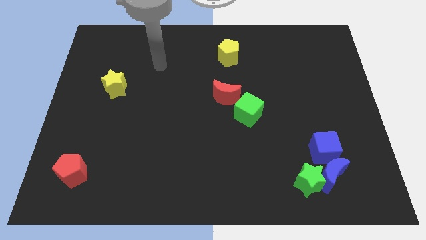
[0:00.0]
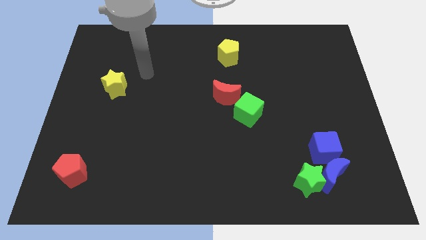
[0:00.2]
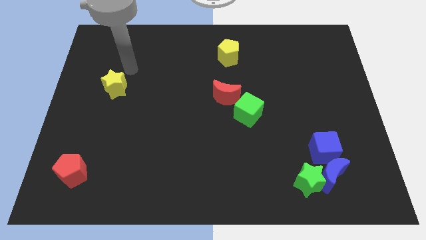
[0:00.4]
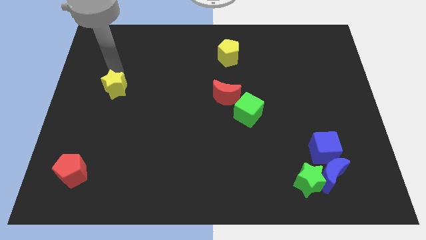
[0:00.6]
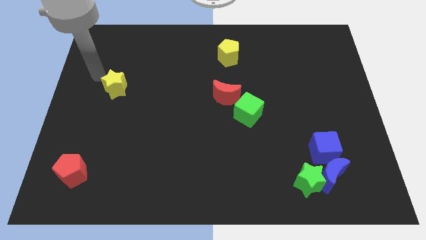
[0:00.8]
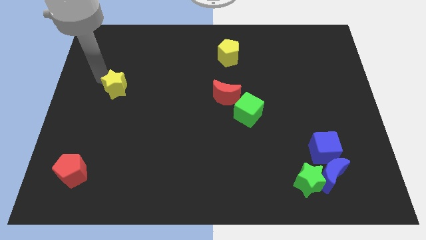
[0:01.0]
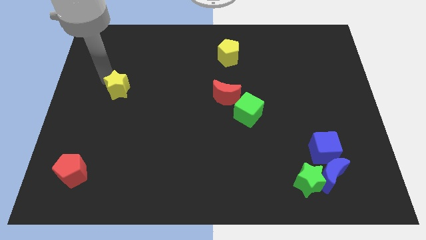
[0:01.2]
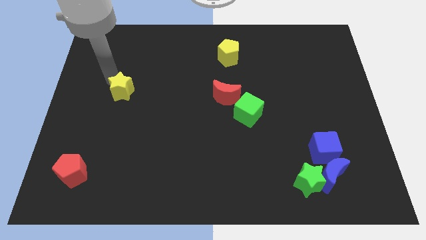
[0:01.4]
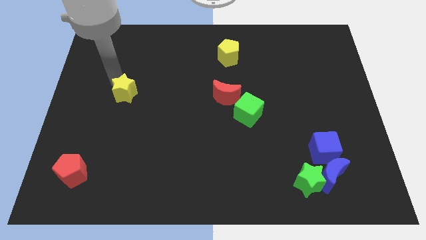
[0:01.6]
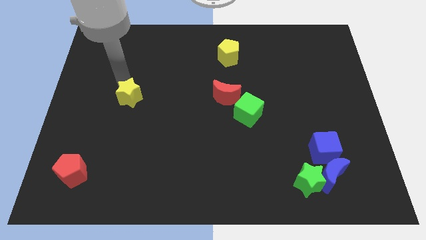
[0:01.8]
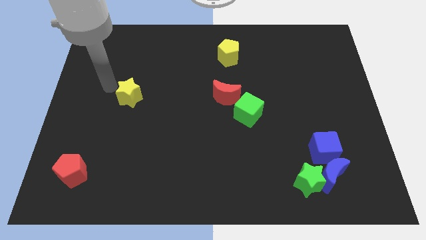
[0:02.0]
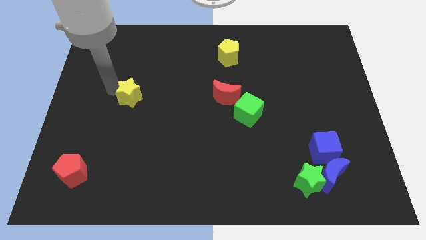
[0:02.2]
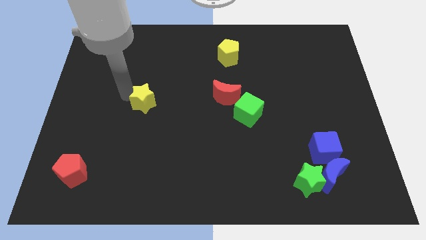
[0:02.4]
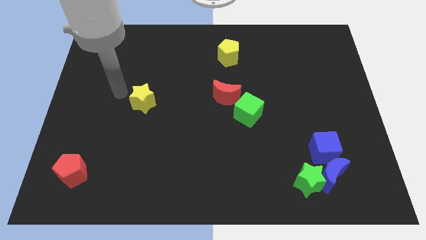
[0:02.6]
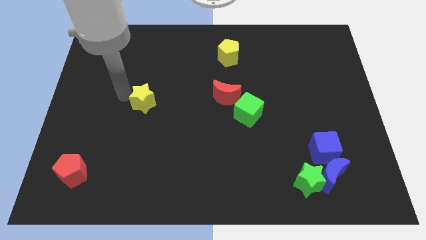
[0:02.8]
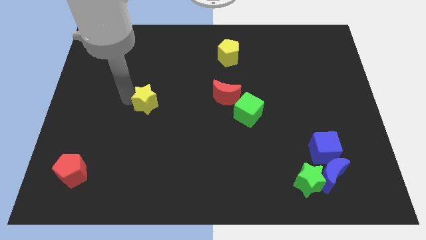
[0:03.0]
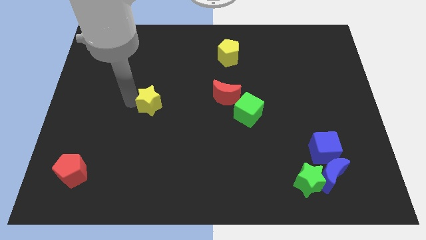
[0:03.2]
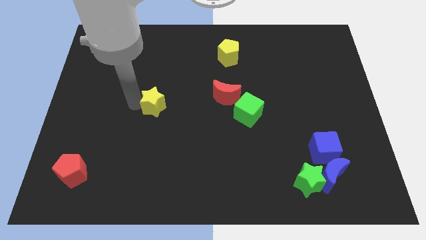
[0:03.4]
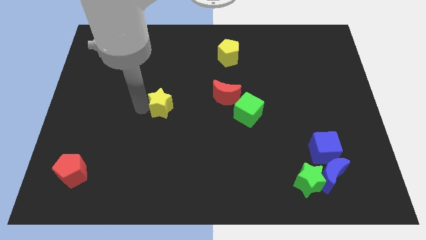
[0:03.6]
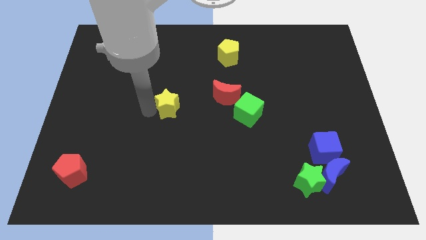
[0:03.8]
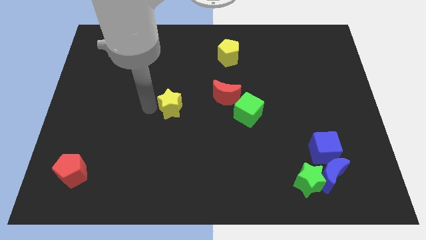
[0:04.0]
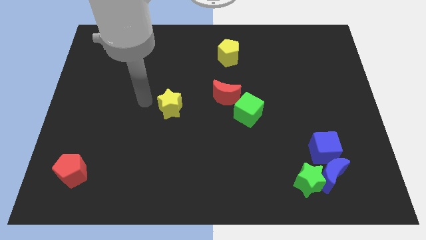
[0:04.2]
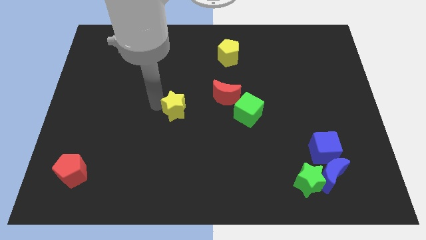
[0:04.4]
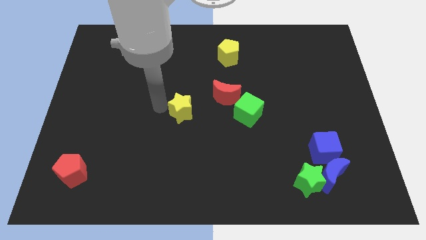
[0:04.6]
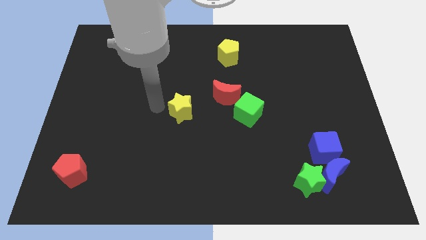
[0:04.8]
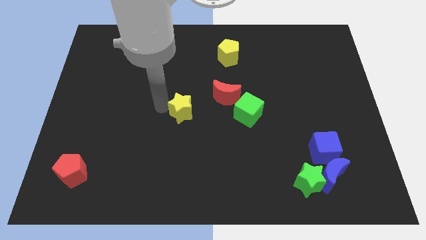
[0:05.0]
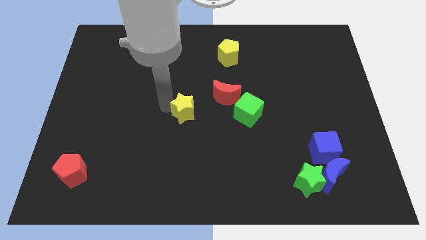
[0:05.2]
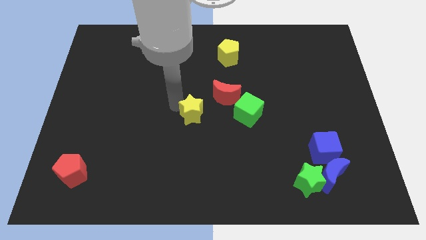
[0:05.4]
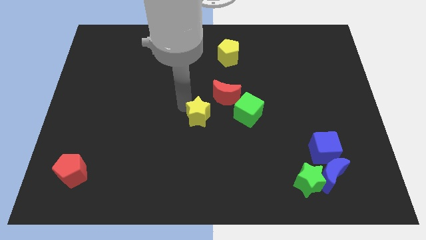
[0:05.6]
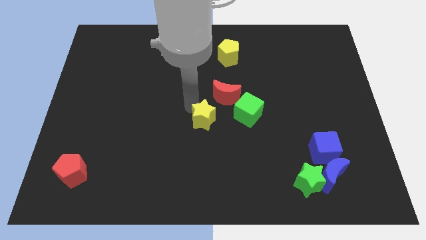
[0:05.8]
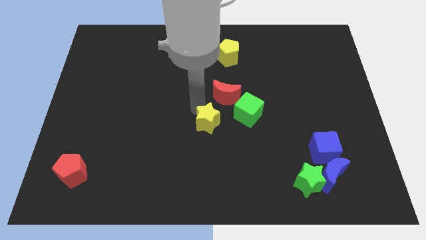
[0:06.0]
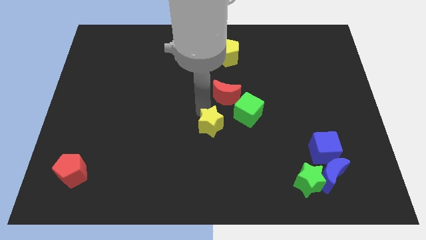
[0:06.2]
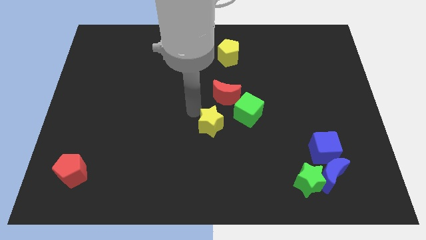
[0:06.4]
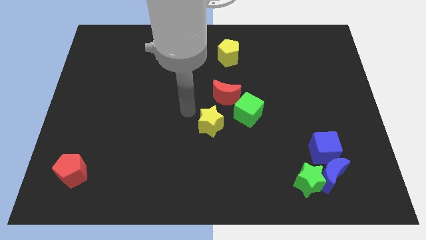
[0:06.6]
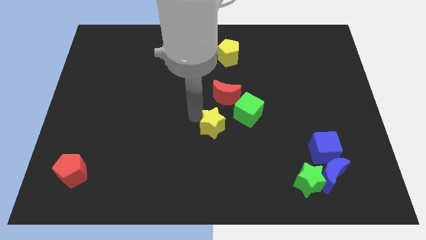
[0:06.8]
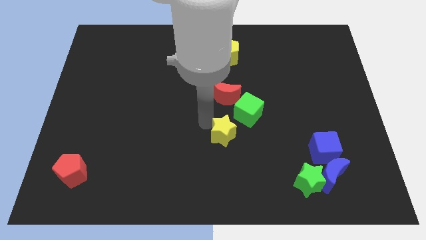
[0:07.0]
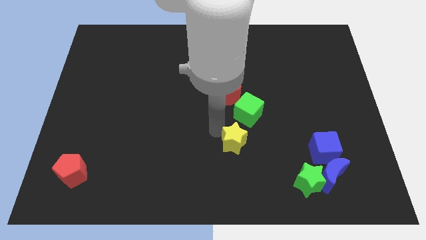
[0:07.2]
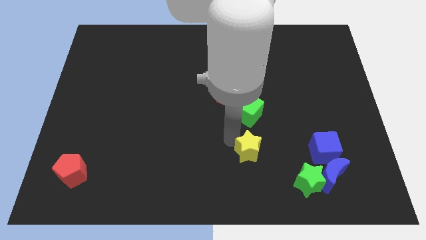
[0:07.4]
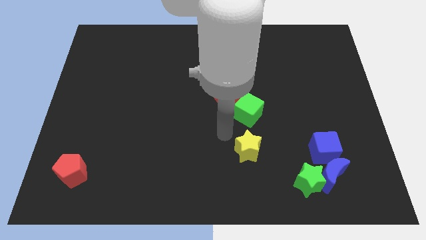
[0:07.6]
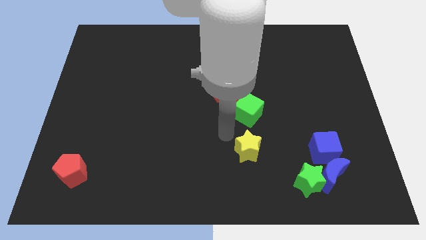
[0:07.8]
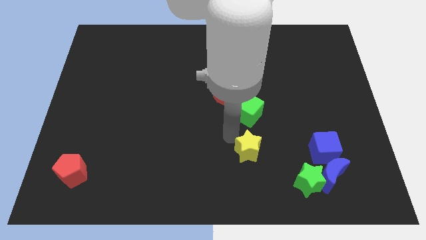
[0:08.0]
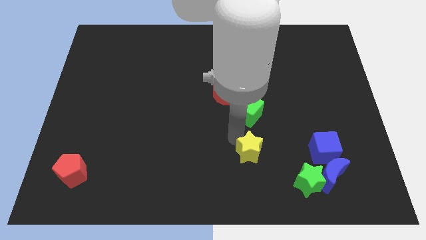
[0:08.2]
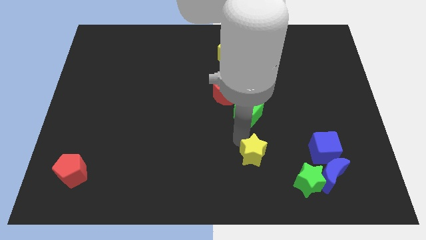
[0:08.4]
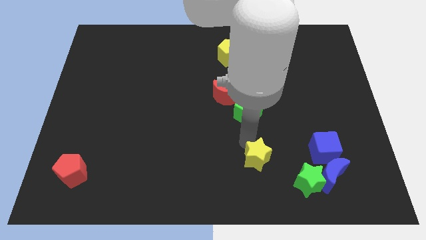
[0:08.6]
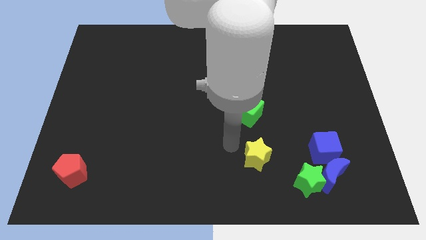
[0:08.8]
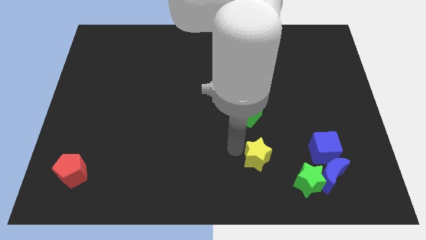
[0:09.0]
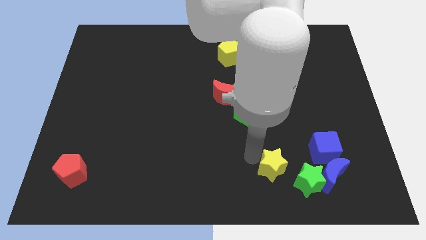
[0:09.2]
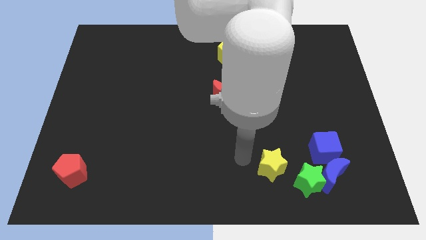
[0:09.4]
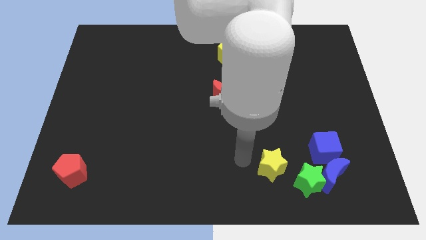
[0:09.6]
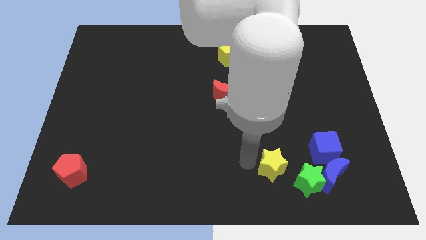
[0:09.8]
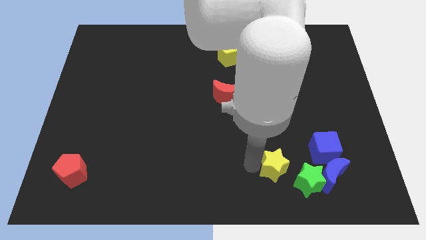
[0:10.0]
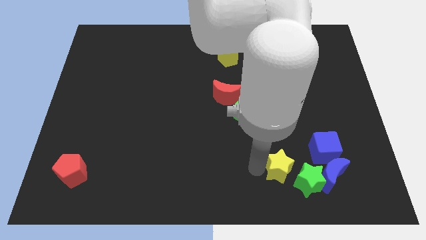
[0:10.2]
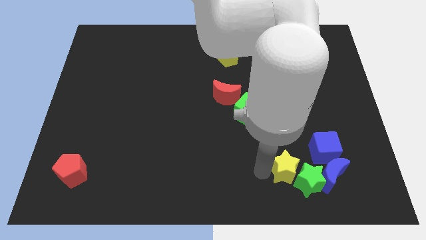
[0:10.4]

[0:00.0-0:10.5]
move the yellow star to the green star
